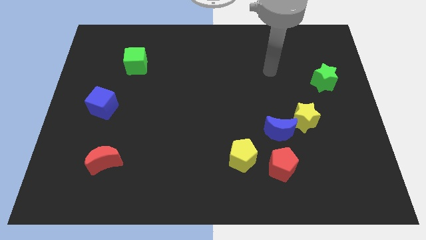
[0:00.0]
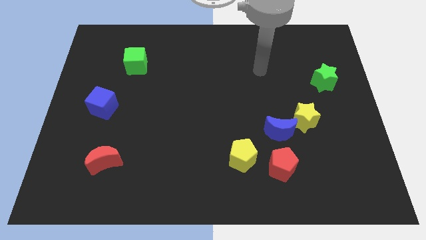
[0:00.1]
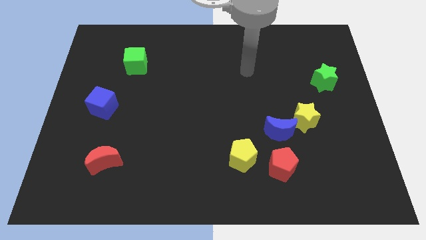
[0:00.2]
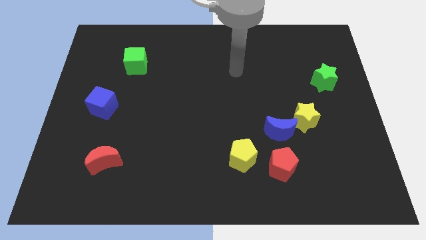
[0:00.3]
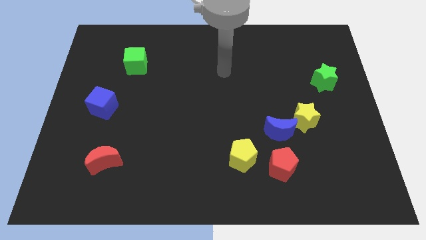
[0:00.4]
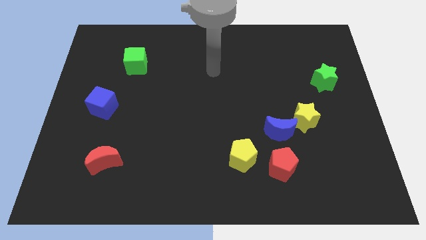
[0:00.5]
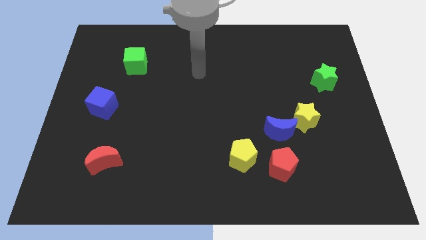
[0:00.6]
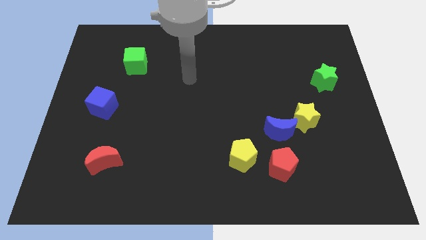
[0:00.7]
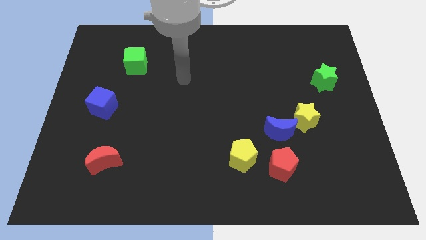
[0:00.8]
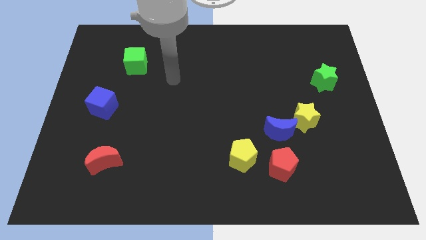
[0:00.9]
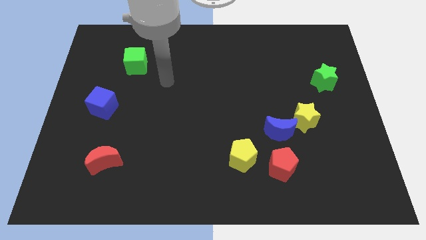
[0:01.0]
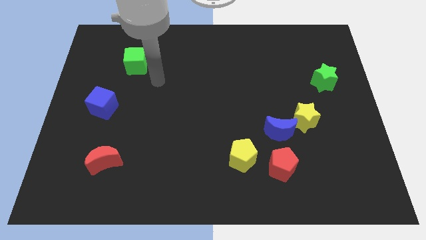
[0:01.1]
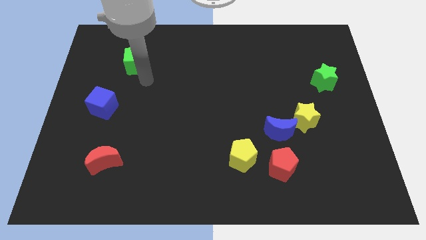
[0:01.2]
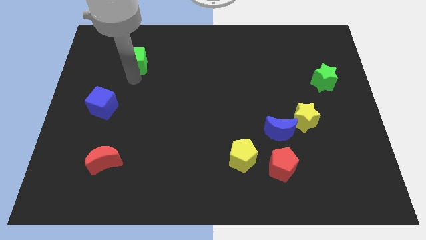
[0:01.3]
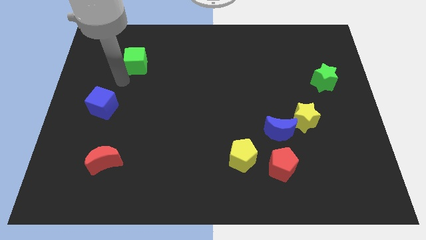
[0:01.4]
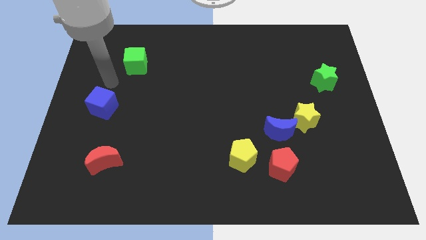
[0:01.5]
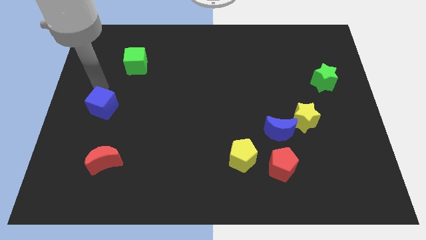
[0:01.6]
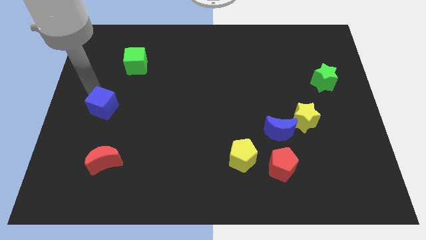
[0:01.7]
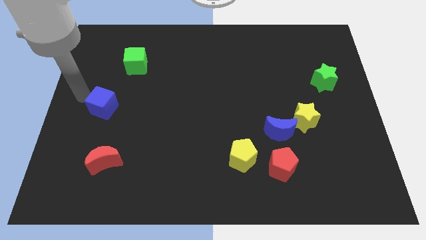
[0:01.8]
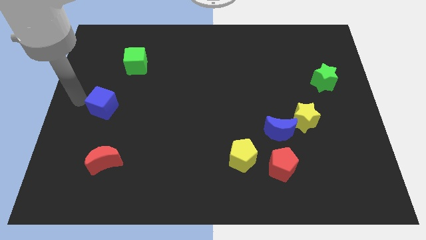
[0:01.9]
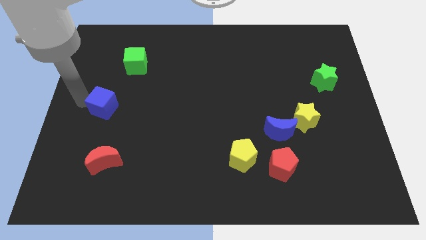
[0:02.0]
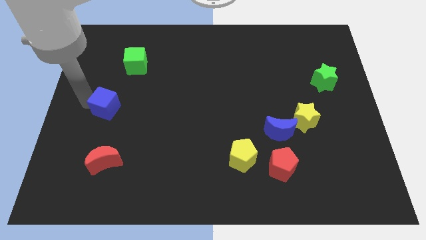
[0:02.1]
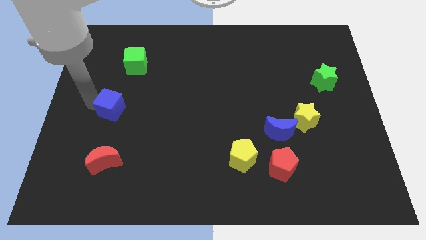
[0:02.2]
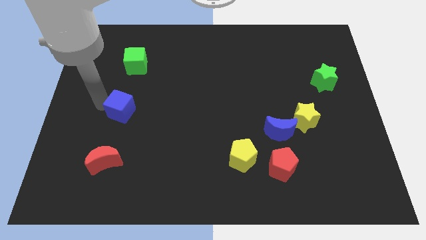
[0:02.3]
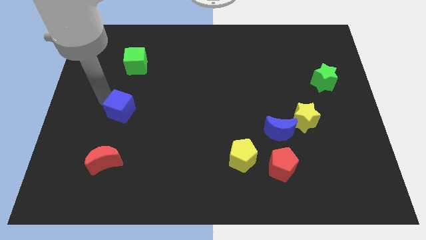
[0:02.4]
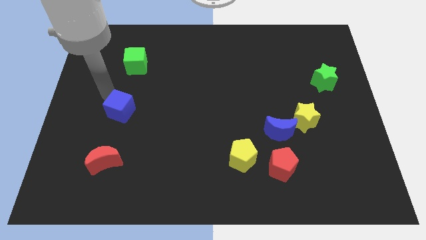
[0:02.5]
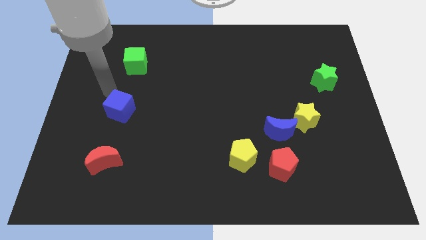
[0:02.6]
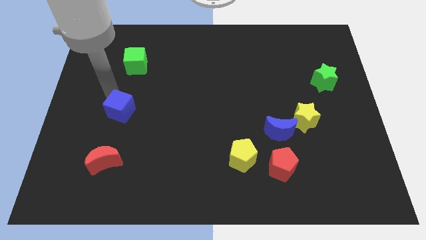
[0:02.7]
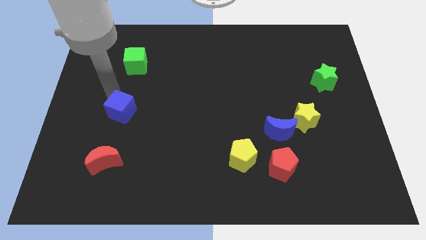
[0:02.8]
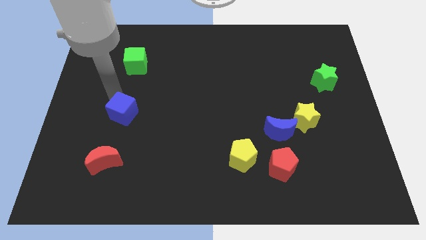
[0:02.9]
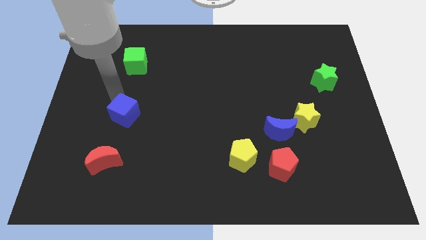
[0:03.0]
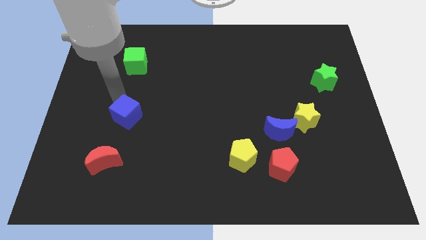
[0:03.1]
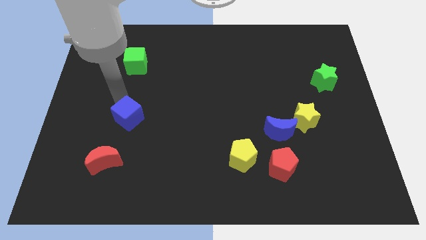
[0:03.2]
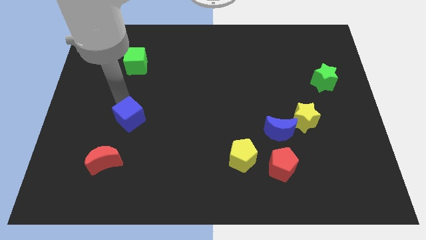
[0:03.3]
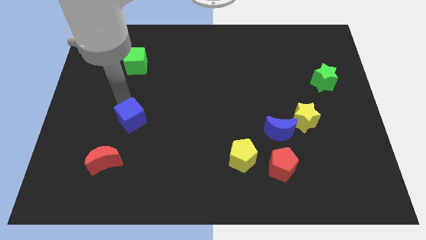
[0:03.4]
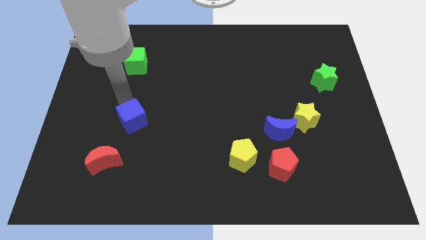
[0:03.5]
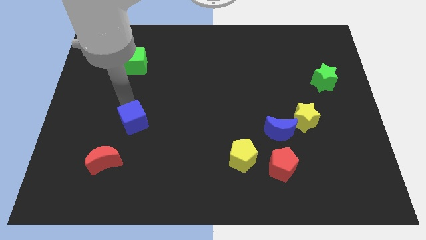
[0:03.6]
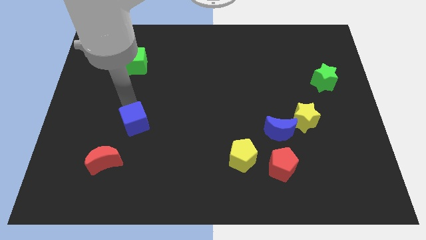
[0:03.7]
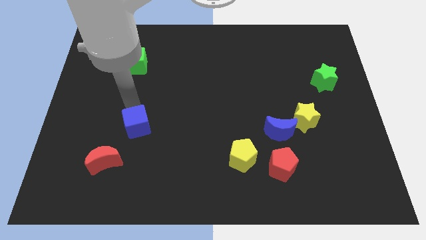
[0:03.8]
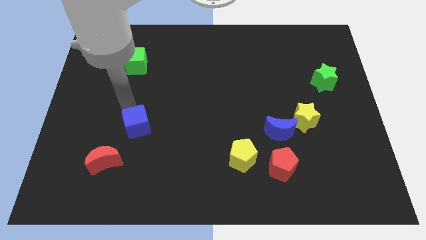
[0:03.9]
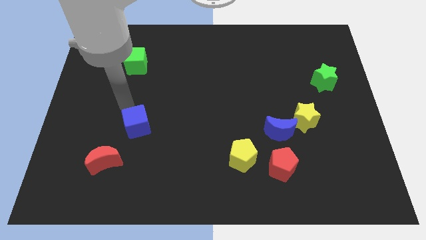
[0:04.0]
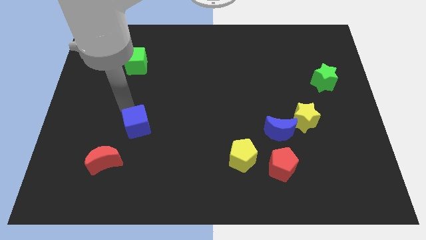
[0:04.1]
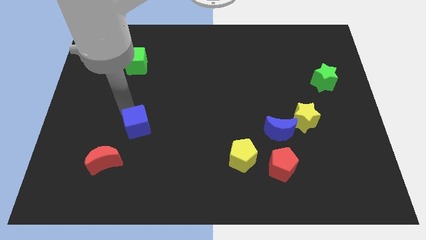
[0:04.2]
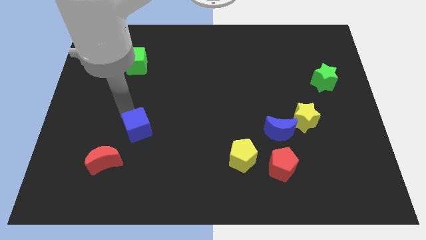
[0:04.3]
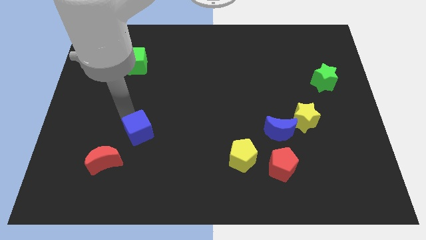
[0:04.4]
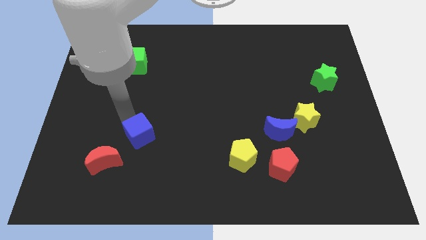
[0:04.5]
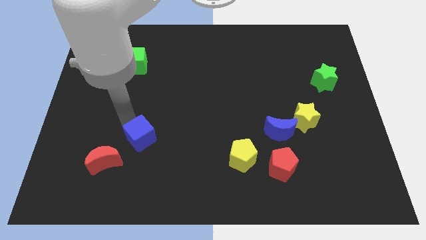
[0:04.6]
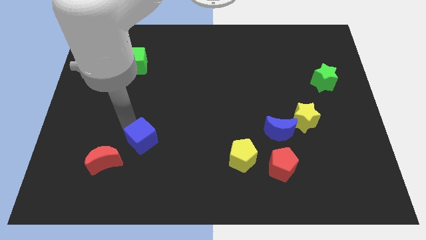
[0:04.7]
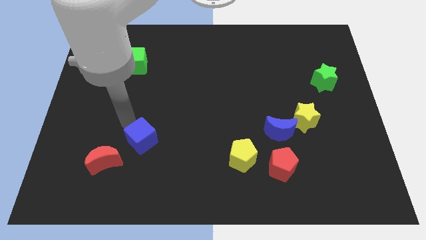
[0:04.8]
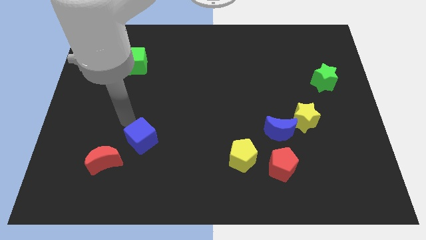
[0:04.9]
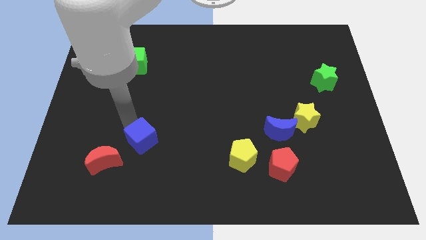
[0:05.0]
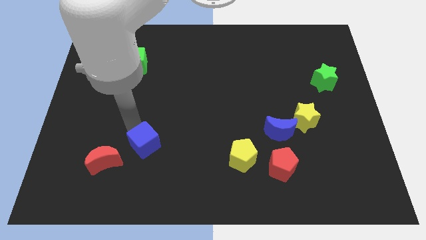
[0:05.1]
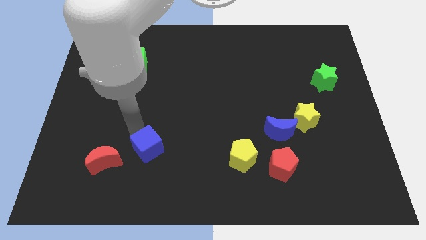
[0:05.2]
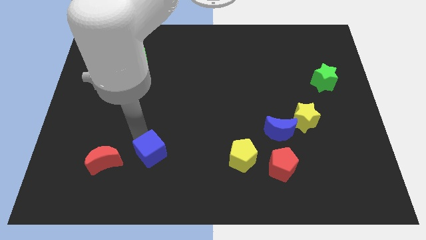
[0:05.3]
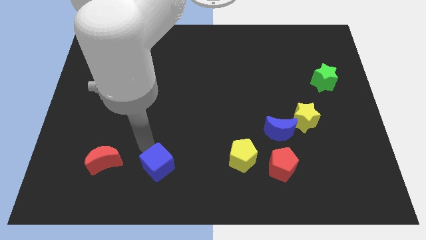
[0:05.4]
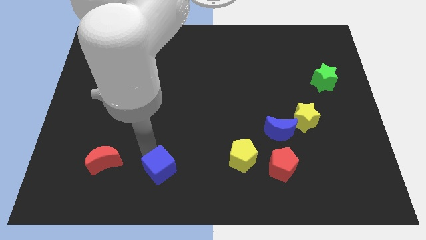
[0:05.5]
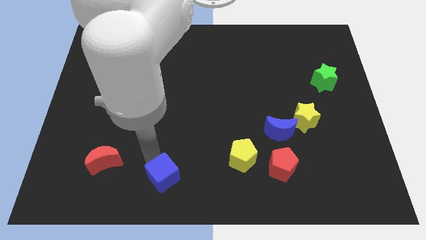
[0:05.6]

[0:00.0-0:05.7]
slide the blue cube to the bottom side
